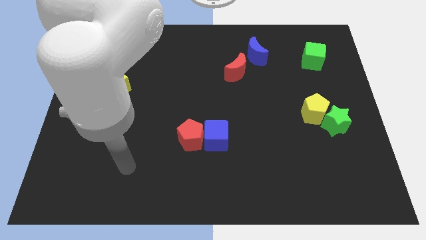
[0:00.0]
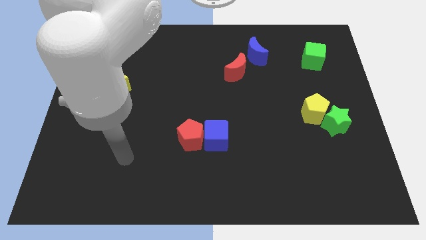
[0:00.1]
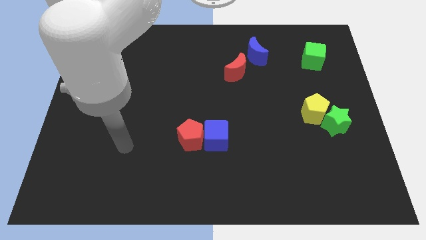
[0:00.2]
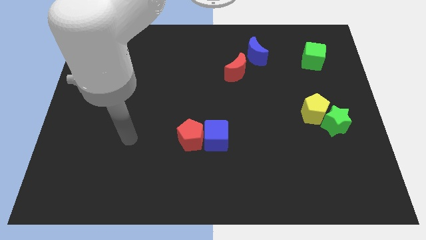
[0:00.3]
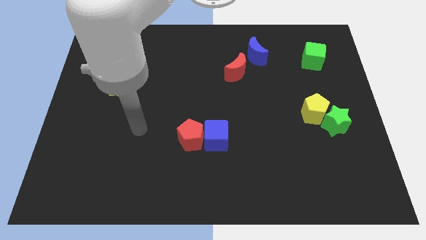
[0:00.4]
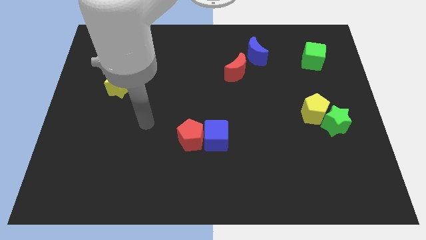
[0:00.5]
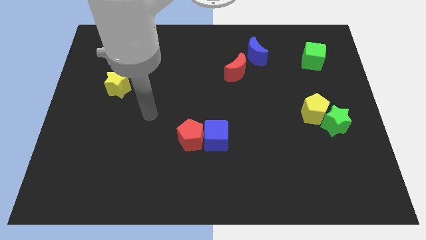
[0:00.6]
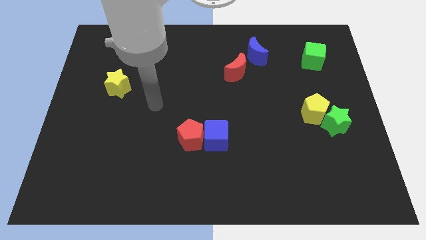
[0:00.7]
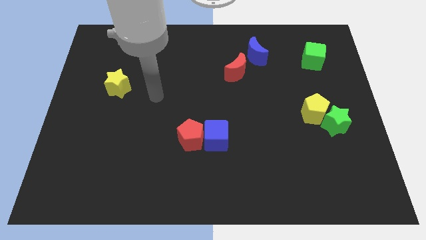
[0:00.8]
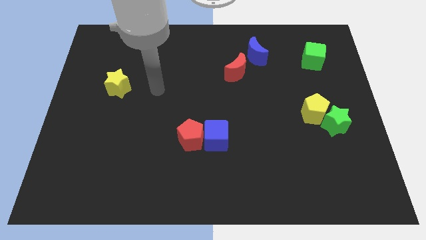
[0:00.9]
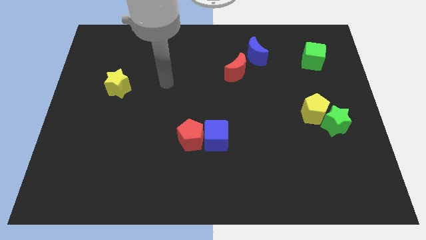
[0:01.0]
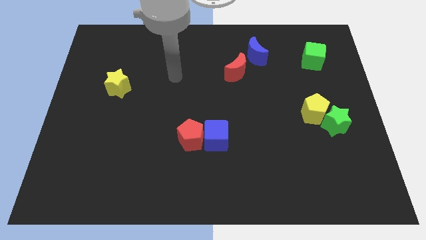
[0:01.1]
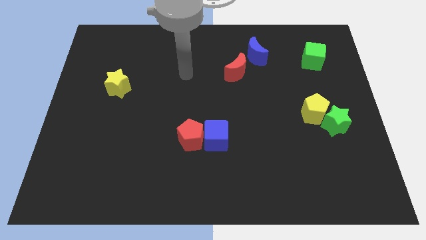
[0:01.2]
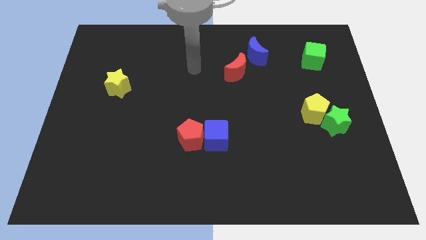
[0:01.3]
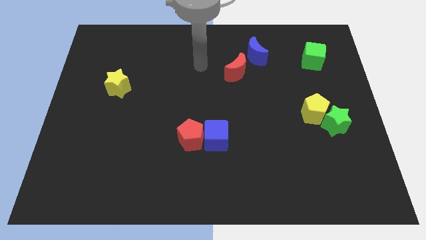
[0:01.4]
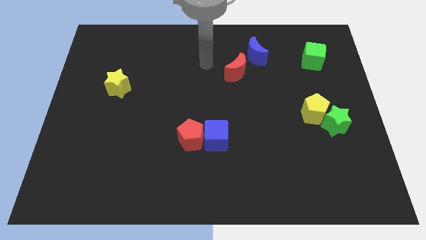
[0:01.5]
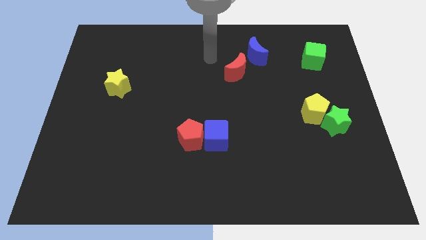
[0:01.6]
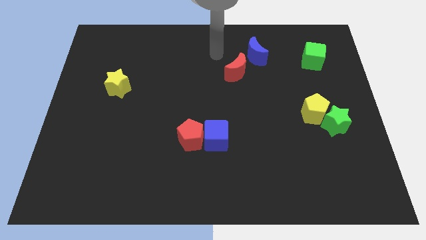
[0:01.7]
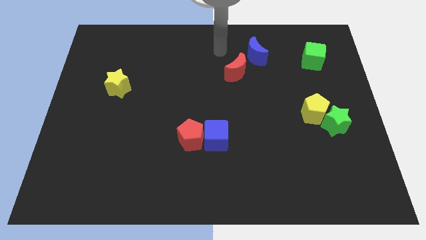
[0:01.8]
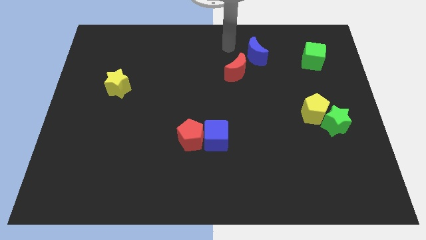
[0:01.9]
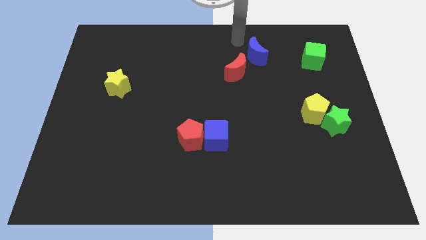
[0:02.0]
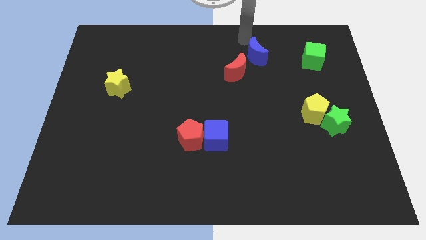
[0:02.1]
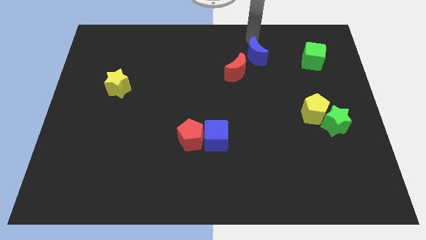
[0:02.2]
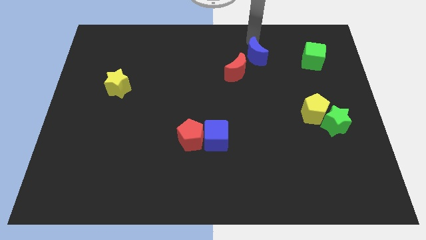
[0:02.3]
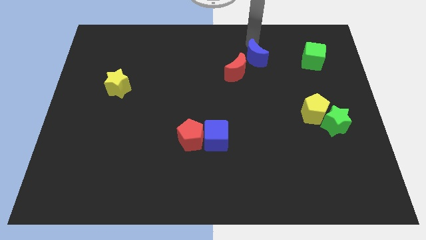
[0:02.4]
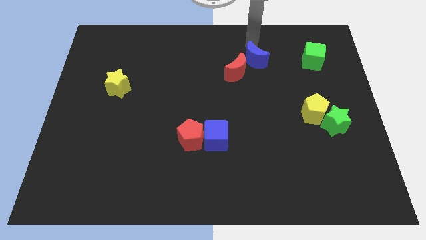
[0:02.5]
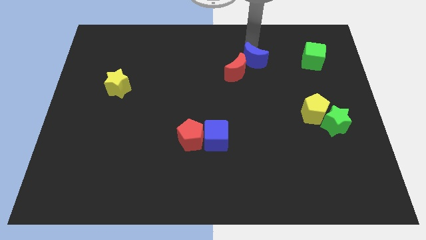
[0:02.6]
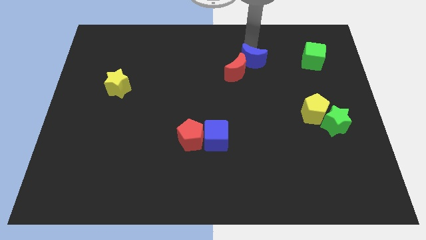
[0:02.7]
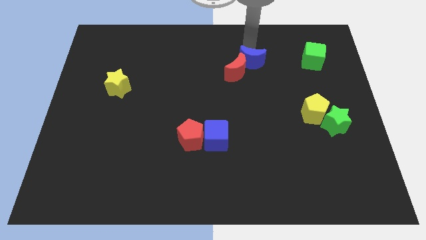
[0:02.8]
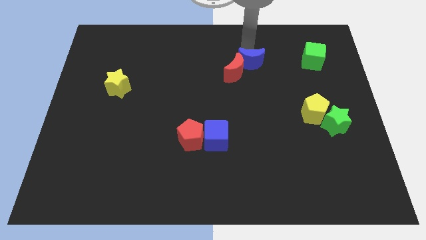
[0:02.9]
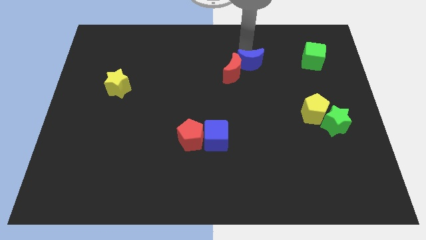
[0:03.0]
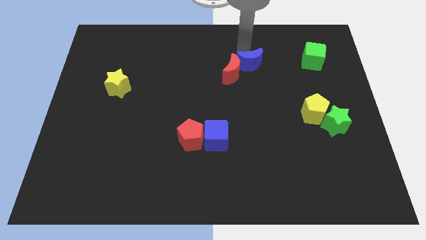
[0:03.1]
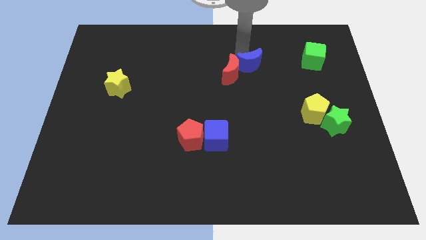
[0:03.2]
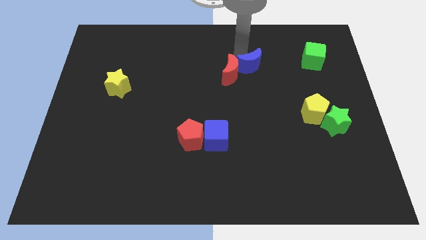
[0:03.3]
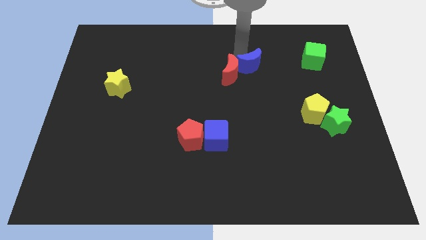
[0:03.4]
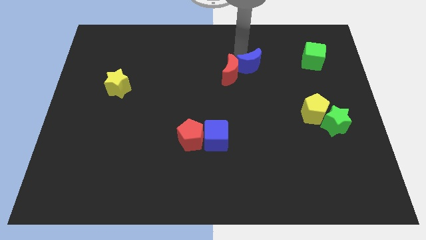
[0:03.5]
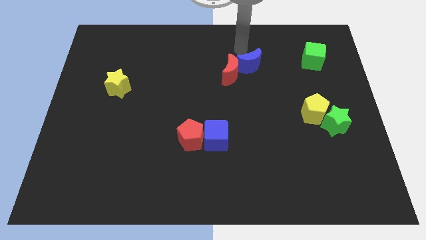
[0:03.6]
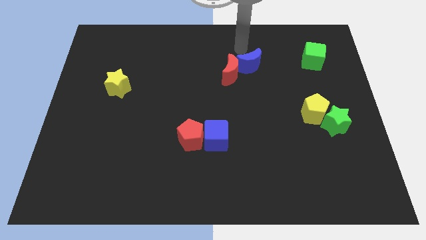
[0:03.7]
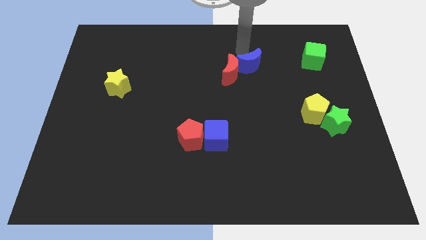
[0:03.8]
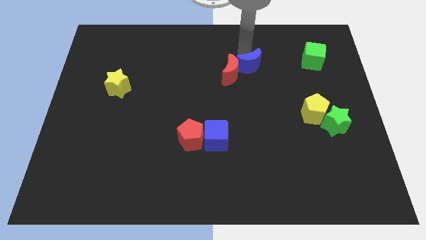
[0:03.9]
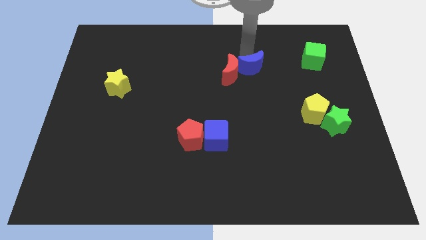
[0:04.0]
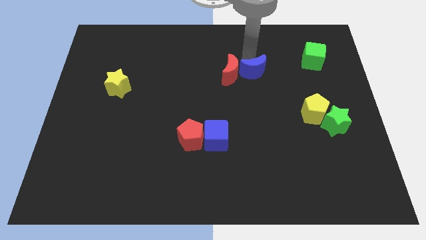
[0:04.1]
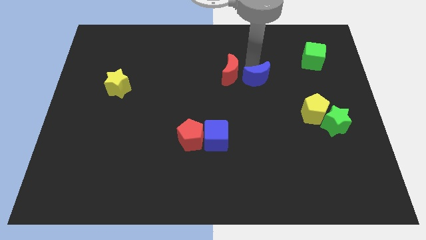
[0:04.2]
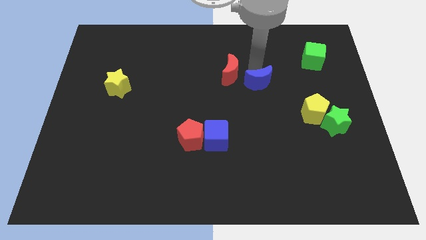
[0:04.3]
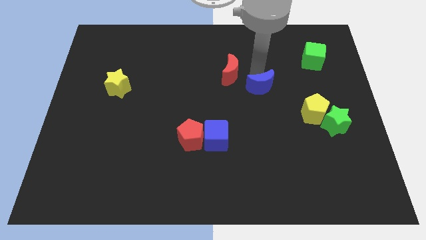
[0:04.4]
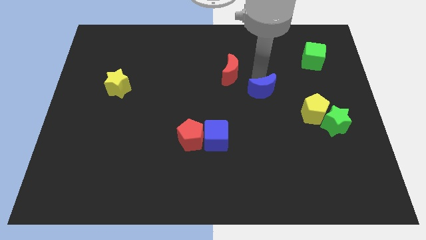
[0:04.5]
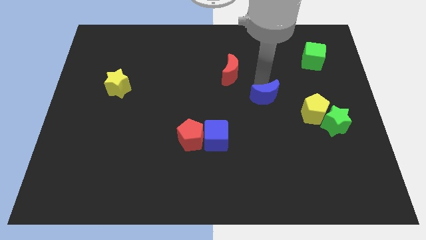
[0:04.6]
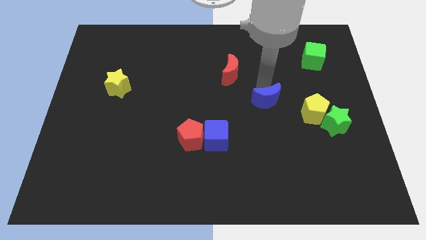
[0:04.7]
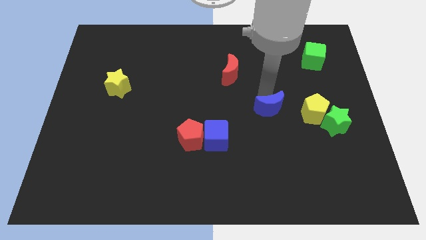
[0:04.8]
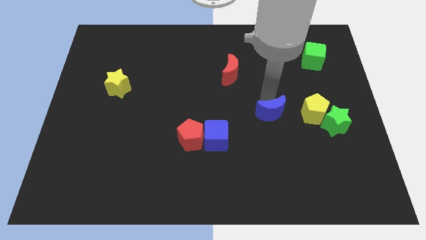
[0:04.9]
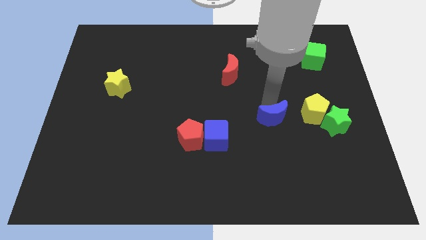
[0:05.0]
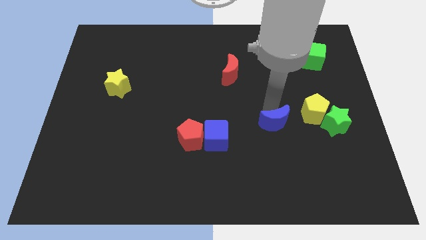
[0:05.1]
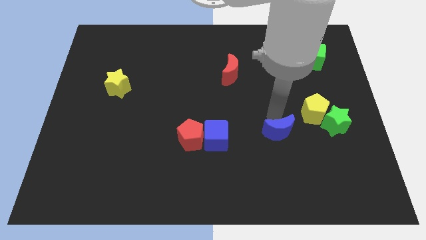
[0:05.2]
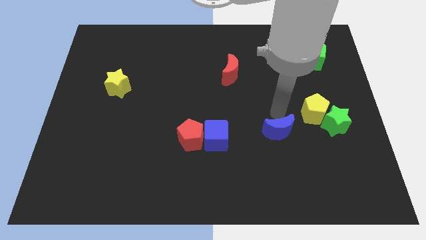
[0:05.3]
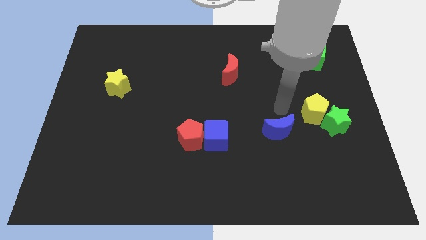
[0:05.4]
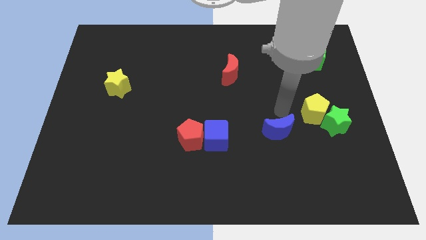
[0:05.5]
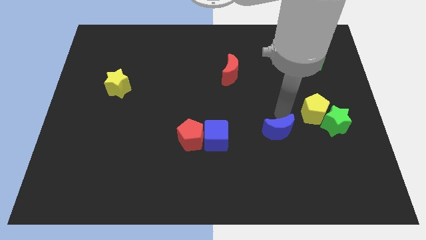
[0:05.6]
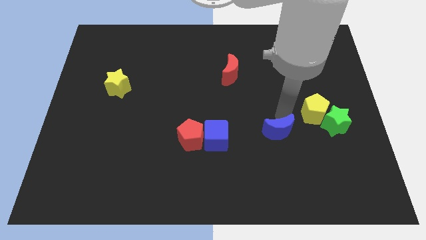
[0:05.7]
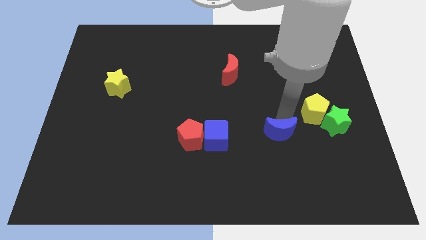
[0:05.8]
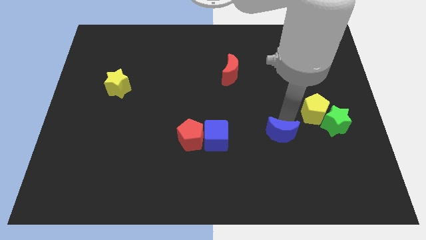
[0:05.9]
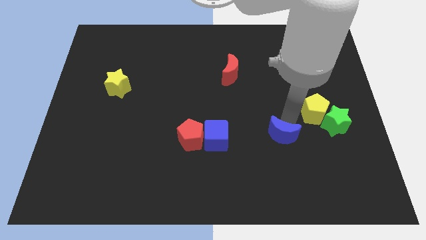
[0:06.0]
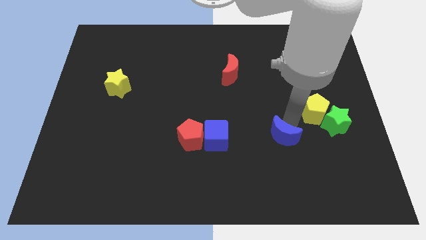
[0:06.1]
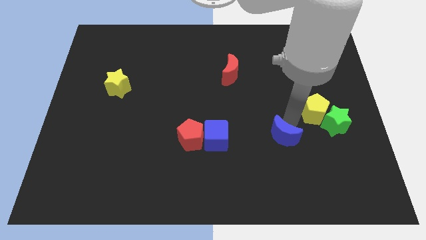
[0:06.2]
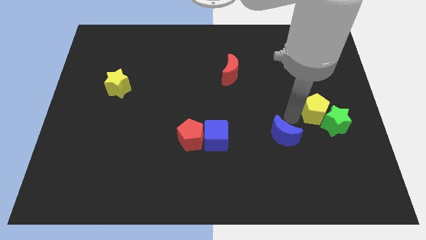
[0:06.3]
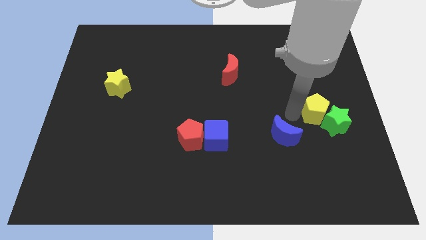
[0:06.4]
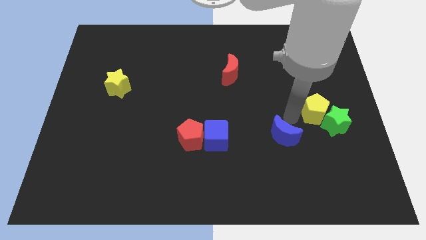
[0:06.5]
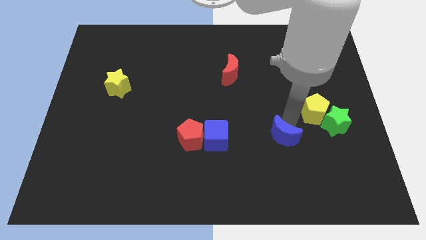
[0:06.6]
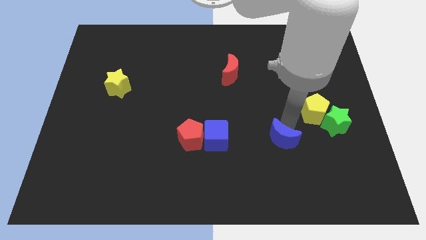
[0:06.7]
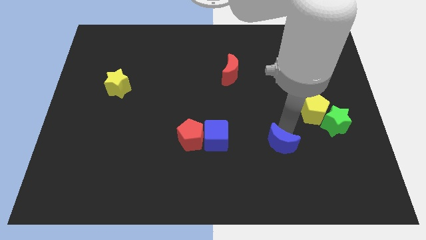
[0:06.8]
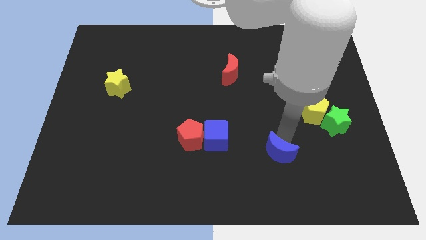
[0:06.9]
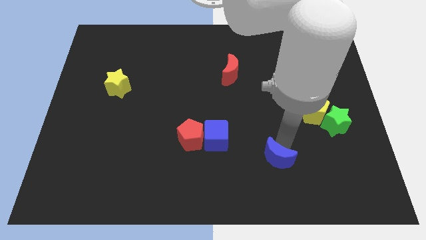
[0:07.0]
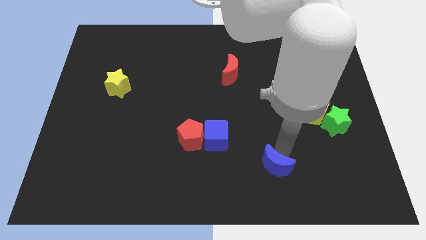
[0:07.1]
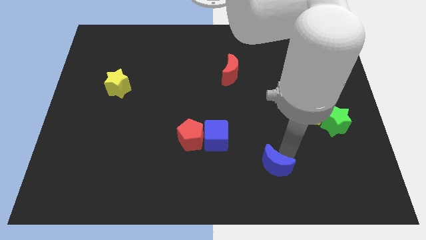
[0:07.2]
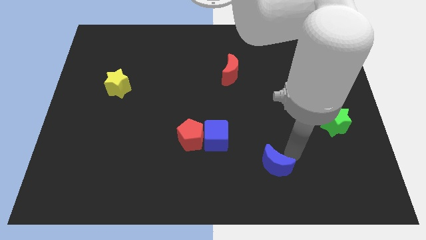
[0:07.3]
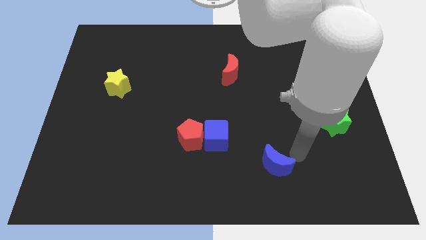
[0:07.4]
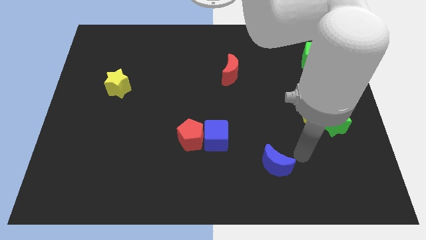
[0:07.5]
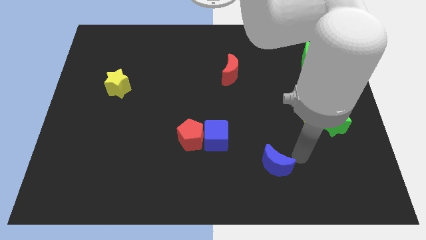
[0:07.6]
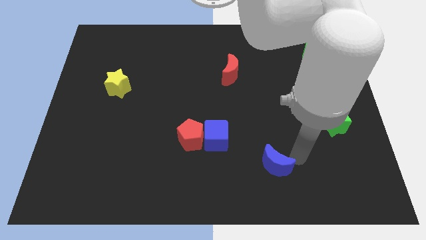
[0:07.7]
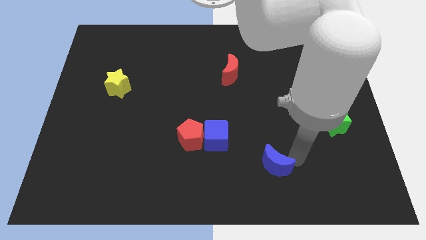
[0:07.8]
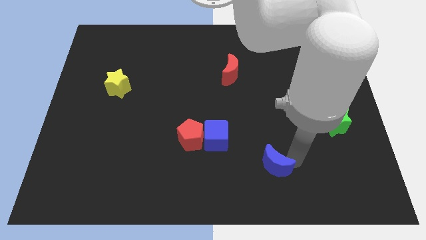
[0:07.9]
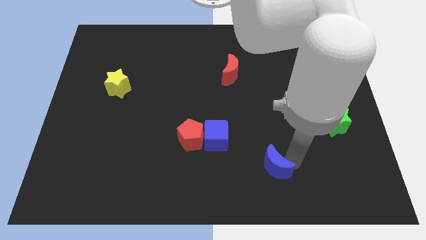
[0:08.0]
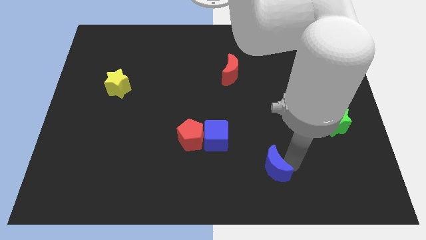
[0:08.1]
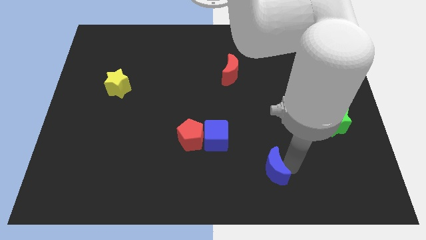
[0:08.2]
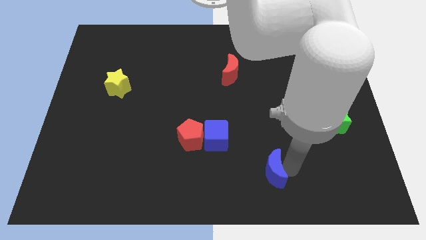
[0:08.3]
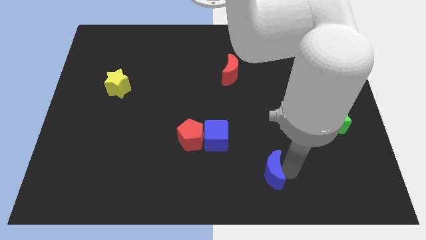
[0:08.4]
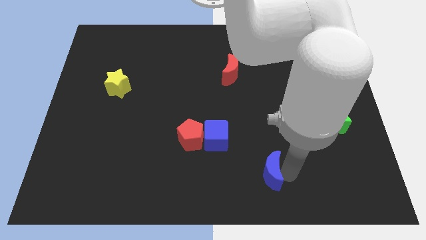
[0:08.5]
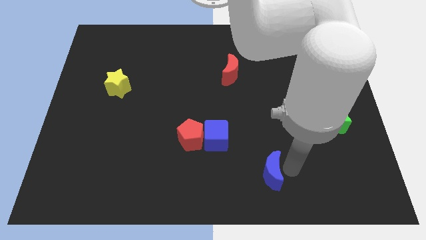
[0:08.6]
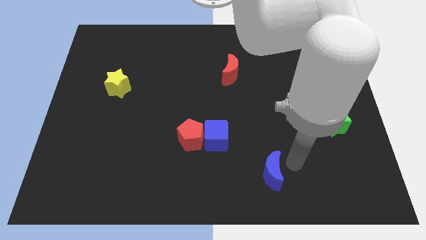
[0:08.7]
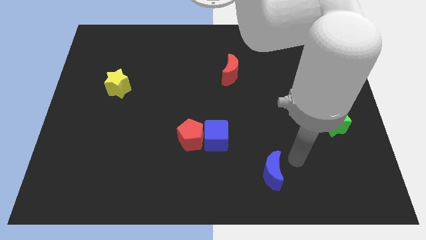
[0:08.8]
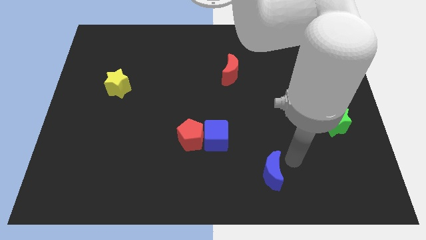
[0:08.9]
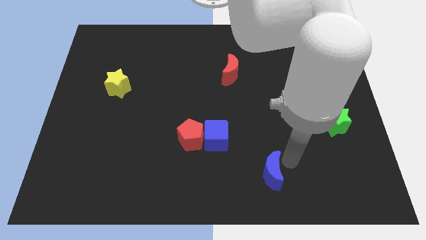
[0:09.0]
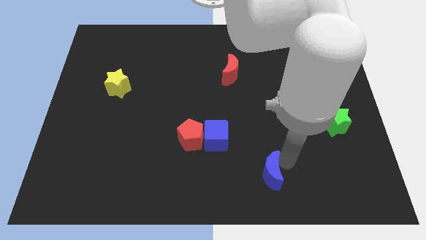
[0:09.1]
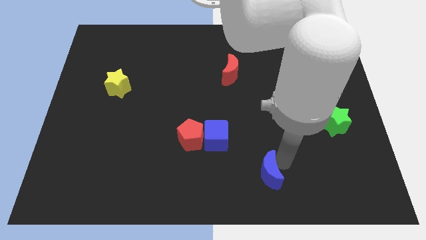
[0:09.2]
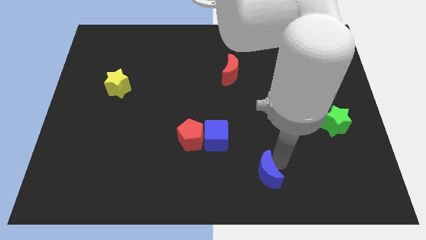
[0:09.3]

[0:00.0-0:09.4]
move the blue moon to the bottom side
